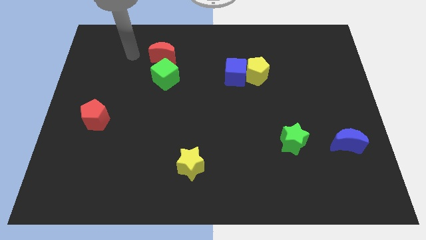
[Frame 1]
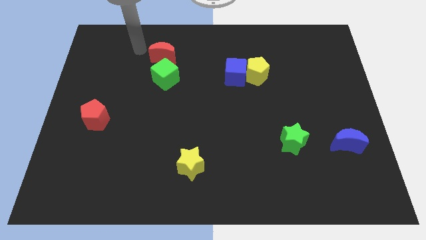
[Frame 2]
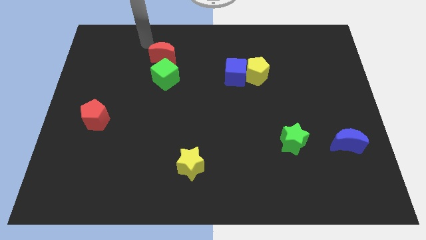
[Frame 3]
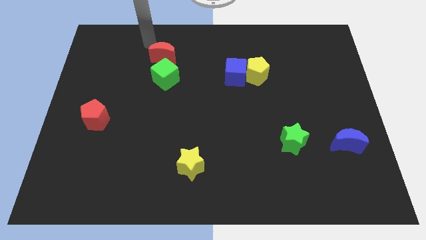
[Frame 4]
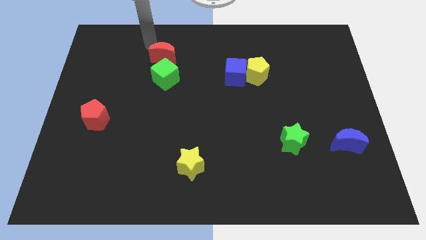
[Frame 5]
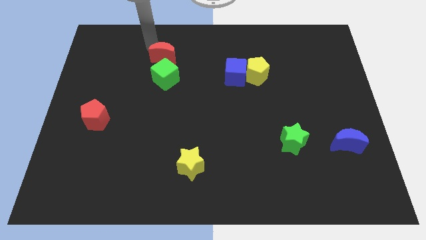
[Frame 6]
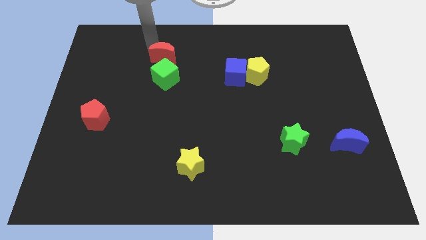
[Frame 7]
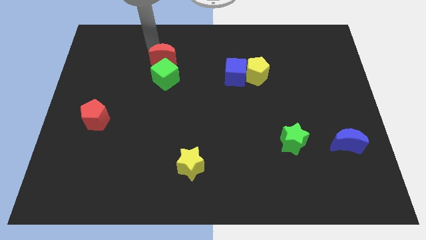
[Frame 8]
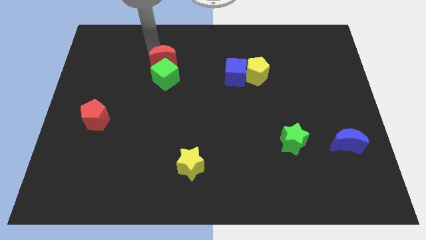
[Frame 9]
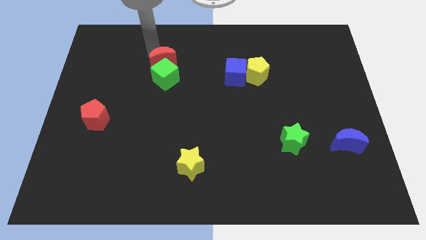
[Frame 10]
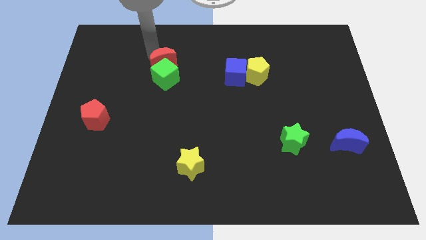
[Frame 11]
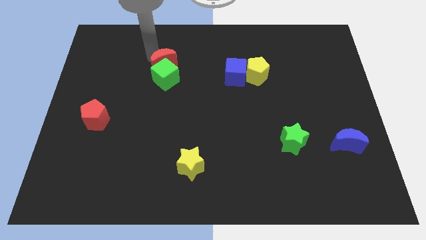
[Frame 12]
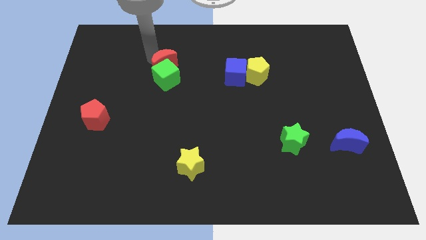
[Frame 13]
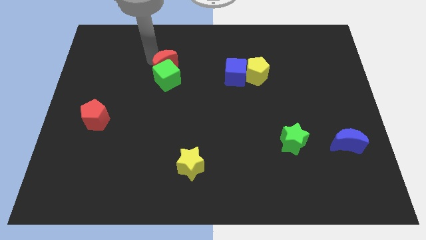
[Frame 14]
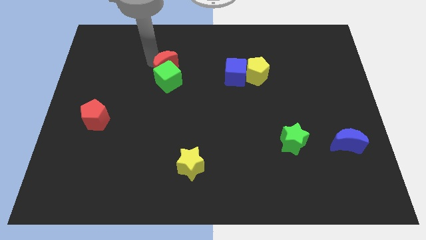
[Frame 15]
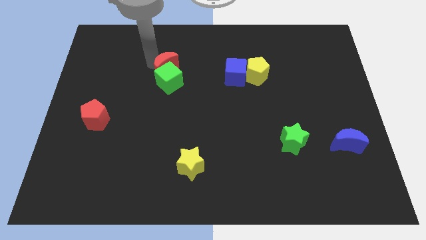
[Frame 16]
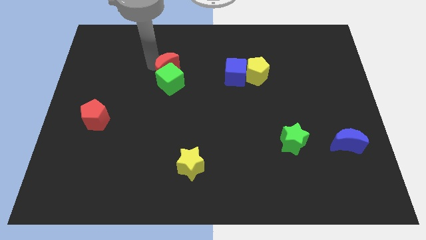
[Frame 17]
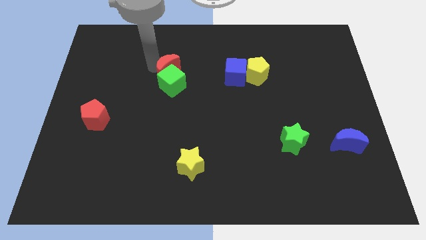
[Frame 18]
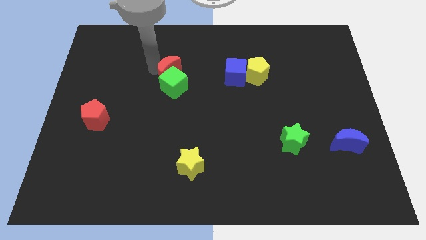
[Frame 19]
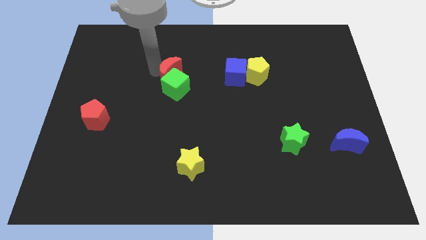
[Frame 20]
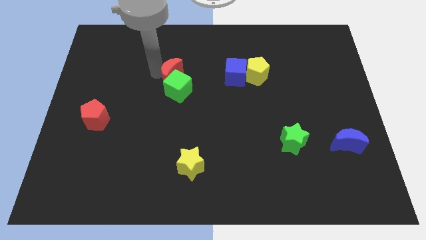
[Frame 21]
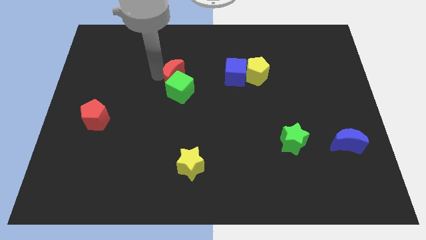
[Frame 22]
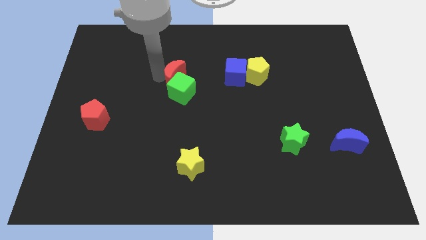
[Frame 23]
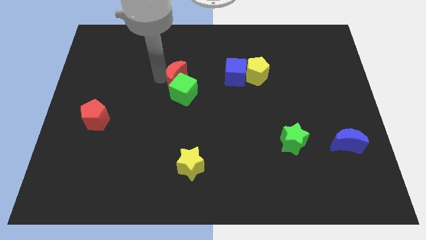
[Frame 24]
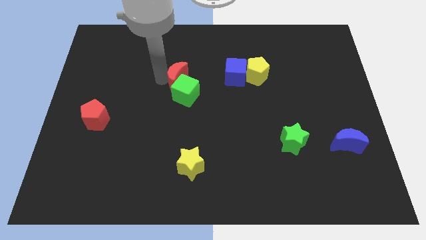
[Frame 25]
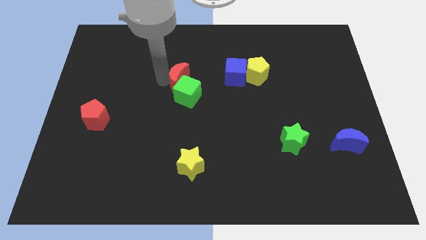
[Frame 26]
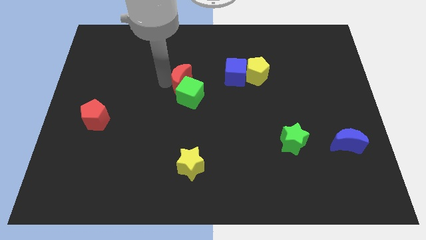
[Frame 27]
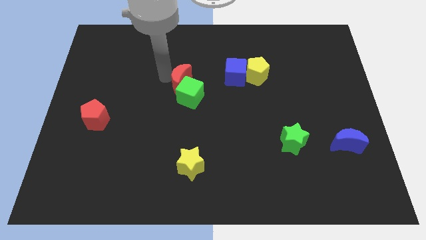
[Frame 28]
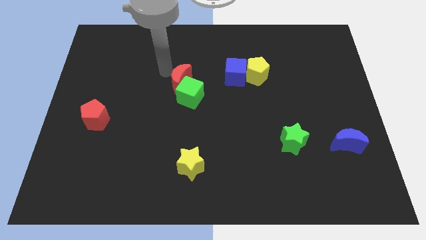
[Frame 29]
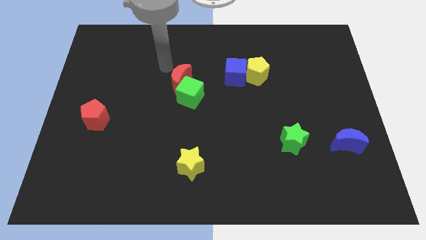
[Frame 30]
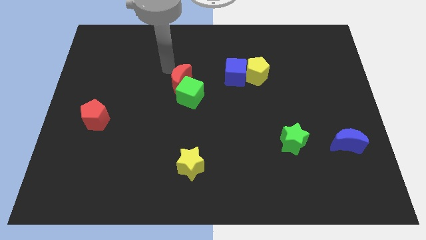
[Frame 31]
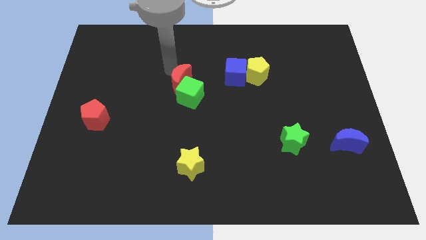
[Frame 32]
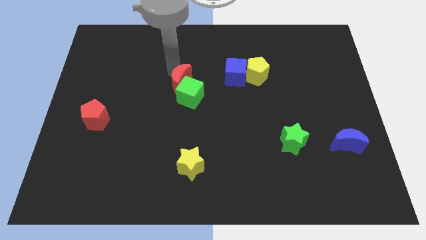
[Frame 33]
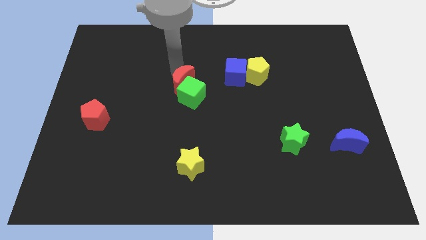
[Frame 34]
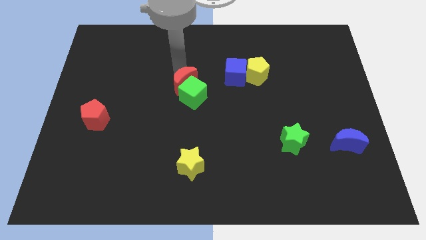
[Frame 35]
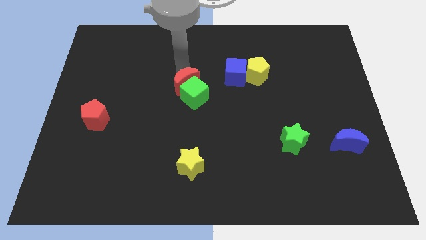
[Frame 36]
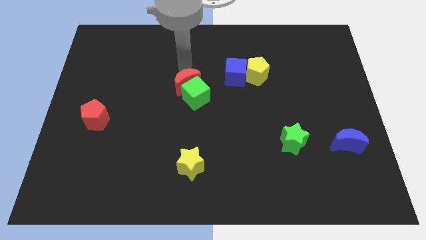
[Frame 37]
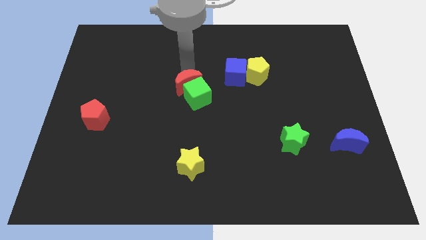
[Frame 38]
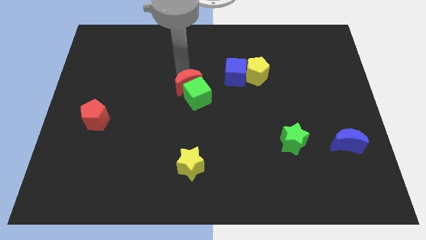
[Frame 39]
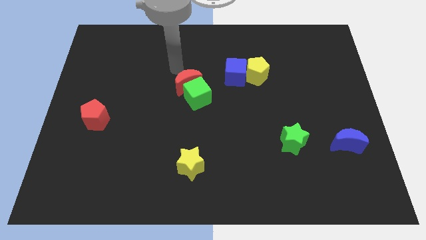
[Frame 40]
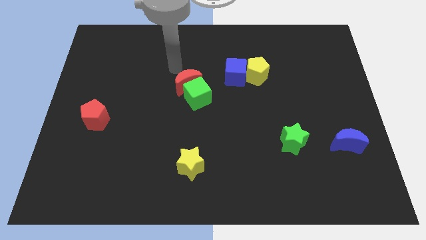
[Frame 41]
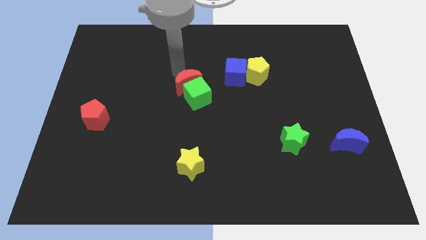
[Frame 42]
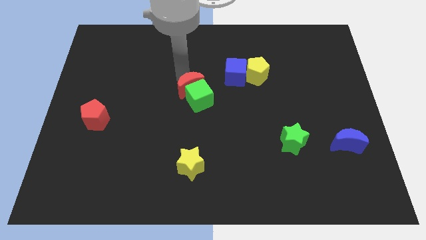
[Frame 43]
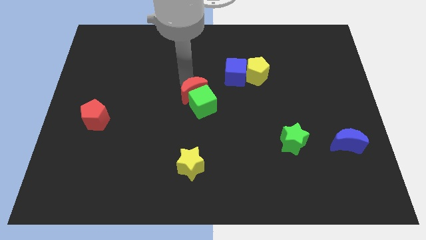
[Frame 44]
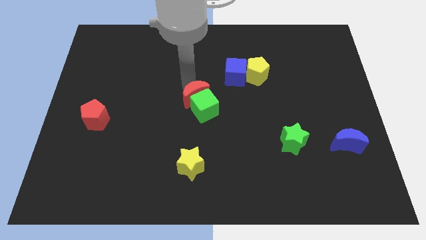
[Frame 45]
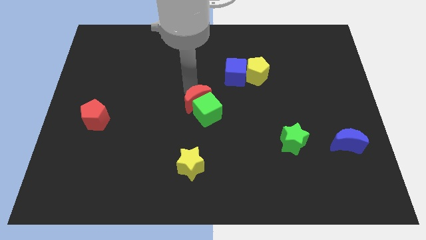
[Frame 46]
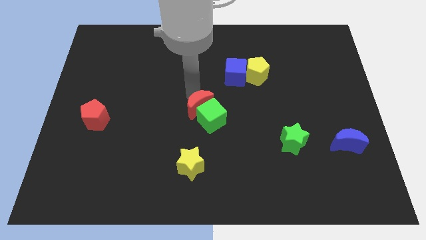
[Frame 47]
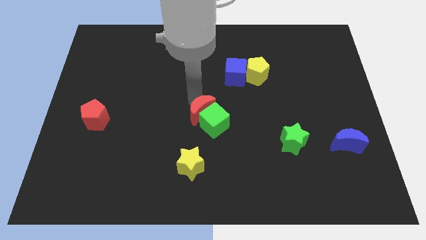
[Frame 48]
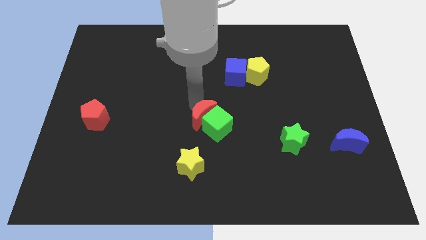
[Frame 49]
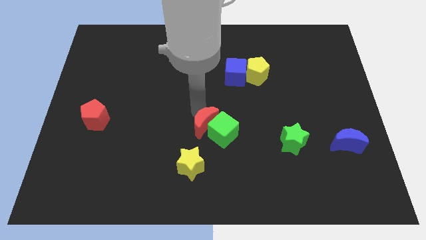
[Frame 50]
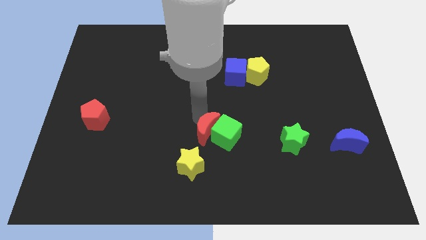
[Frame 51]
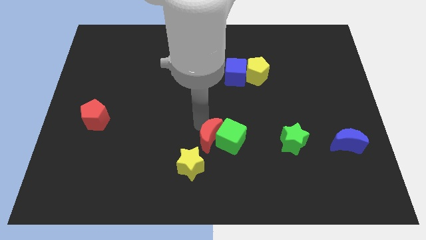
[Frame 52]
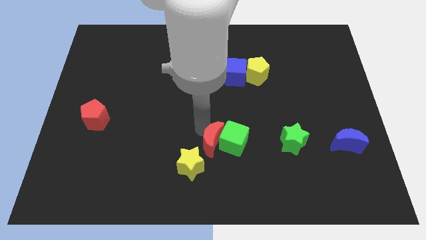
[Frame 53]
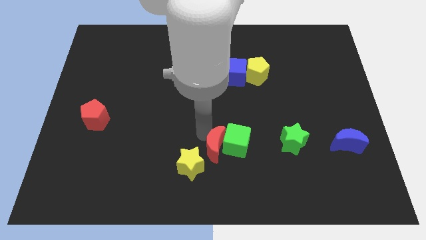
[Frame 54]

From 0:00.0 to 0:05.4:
slide the red moon to the right of the yellow star
